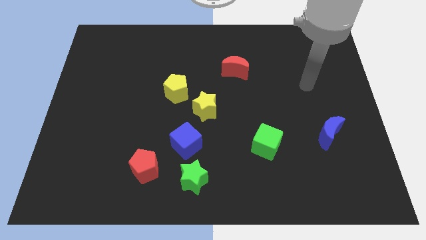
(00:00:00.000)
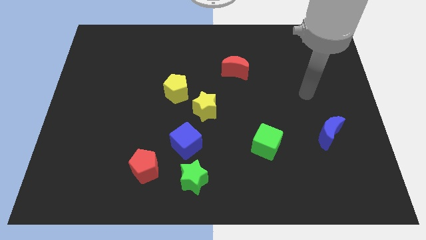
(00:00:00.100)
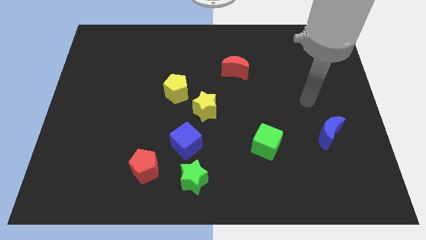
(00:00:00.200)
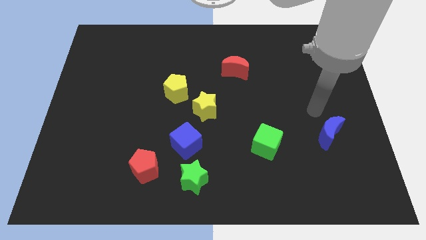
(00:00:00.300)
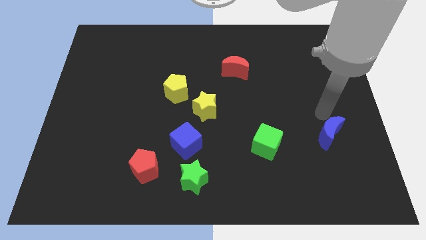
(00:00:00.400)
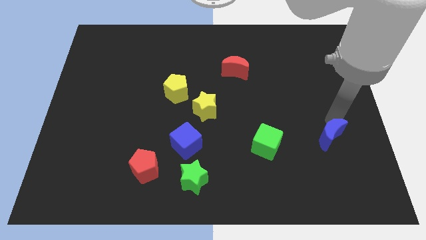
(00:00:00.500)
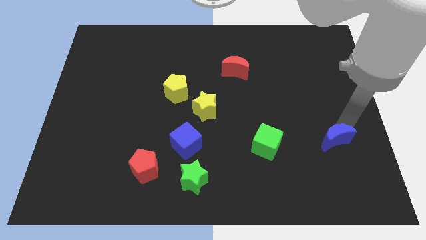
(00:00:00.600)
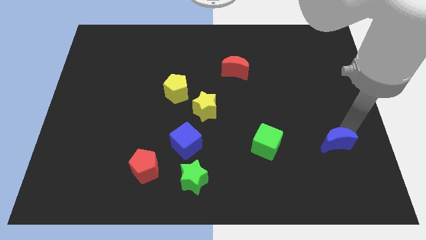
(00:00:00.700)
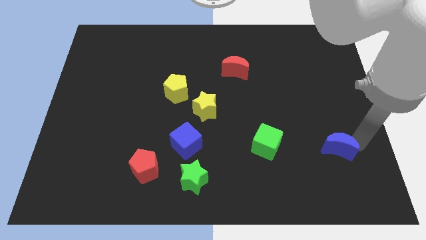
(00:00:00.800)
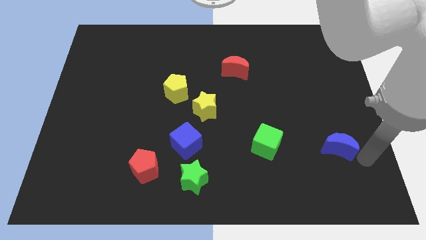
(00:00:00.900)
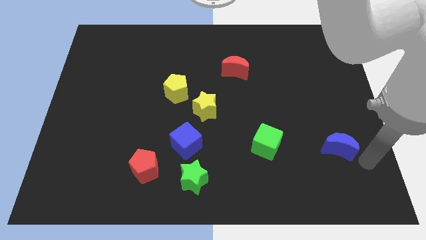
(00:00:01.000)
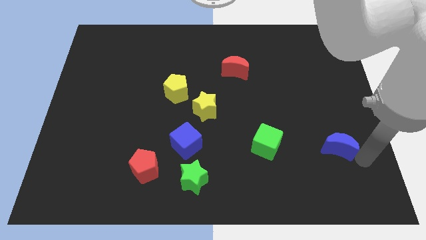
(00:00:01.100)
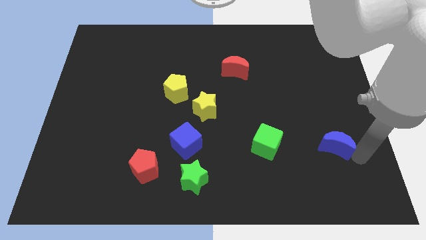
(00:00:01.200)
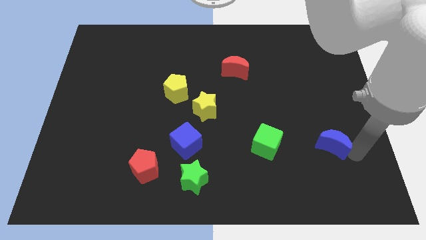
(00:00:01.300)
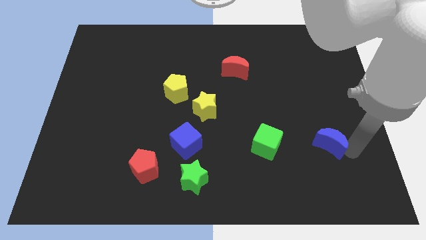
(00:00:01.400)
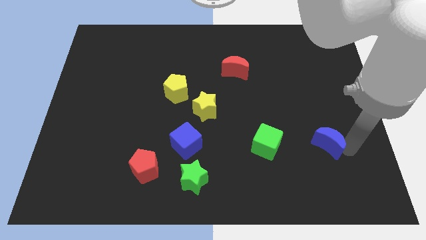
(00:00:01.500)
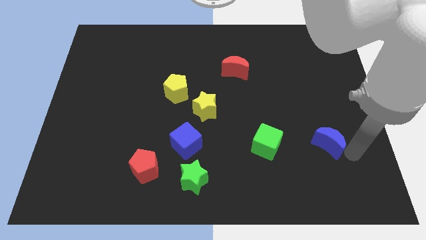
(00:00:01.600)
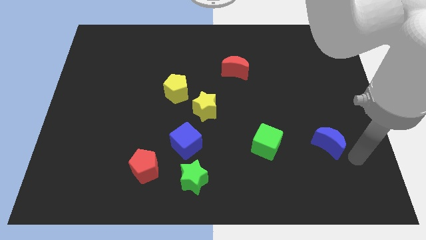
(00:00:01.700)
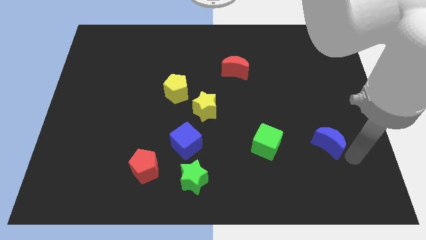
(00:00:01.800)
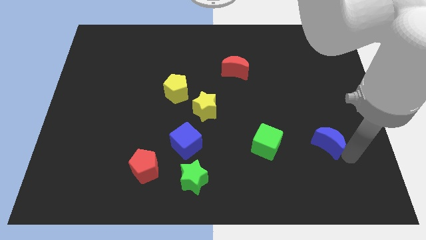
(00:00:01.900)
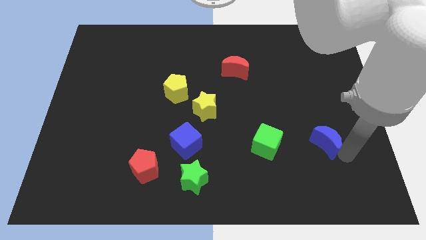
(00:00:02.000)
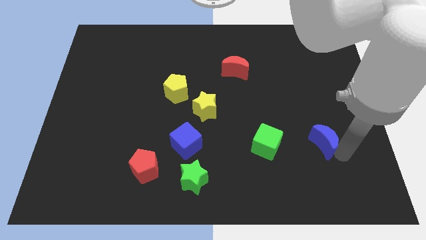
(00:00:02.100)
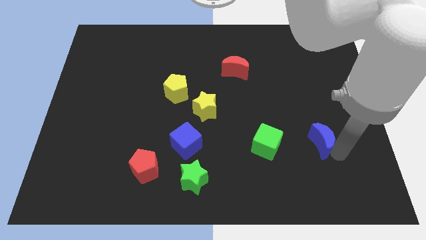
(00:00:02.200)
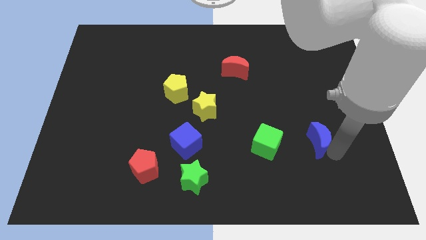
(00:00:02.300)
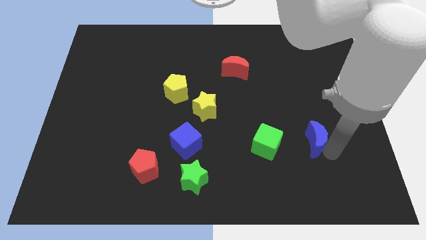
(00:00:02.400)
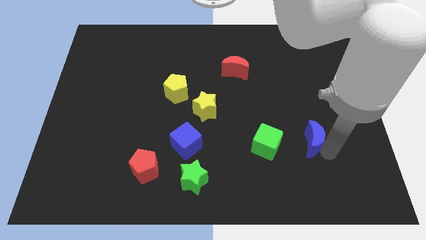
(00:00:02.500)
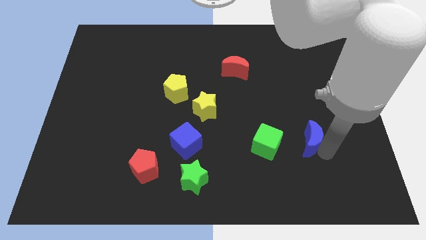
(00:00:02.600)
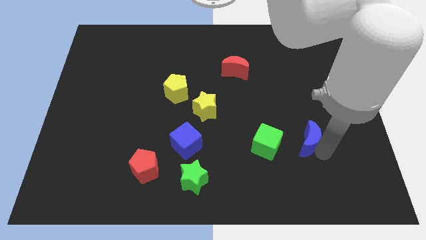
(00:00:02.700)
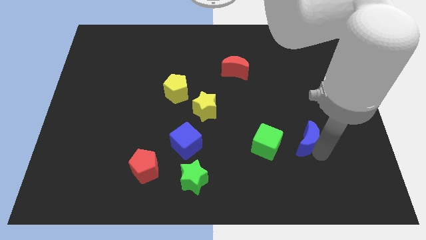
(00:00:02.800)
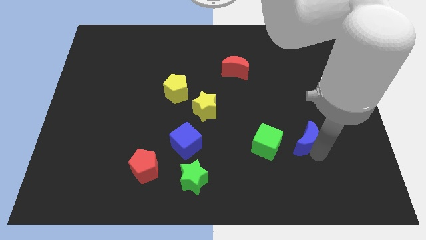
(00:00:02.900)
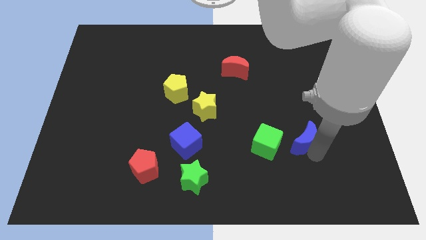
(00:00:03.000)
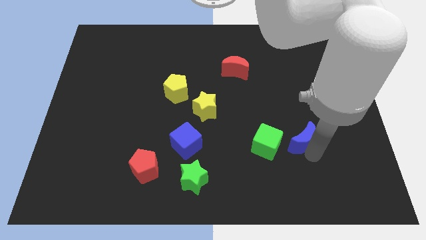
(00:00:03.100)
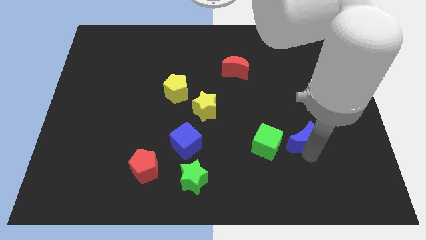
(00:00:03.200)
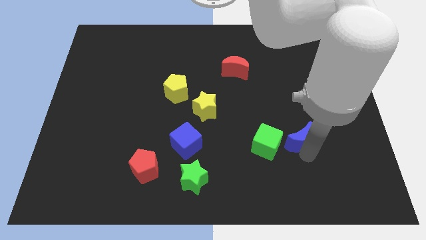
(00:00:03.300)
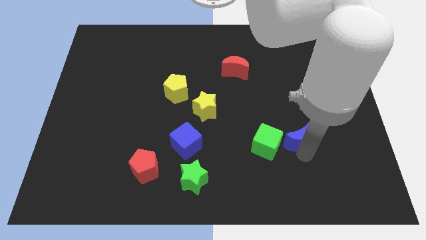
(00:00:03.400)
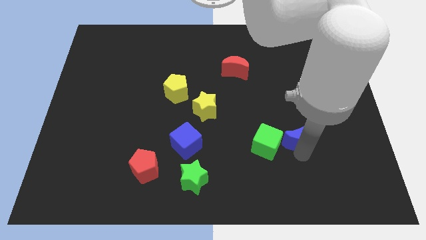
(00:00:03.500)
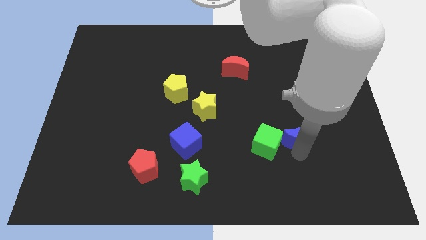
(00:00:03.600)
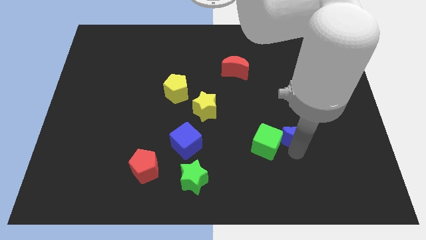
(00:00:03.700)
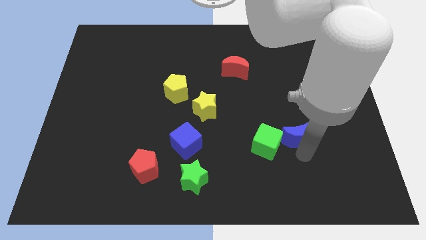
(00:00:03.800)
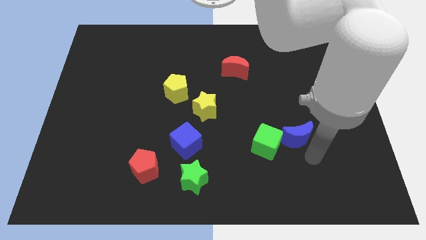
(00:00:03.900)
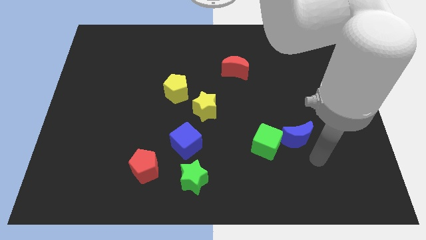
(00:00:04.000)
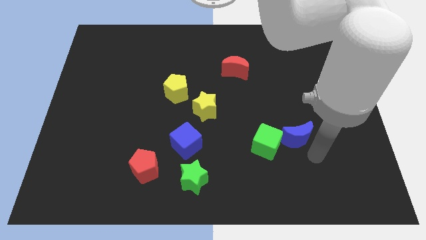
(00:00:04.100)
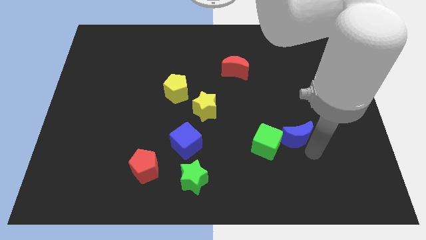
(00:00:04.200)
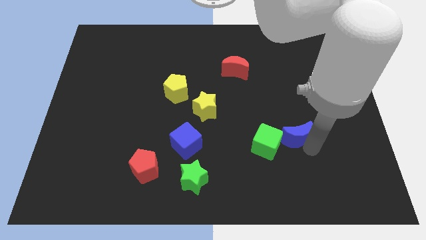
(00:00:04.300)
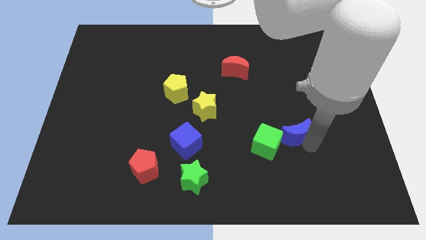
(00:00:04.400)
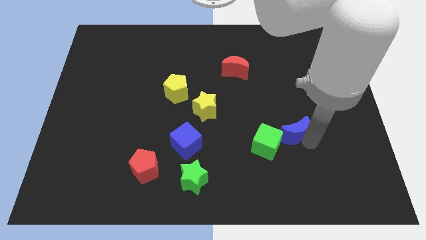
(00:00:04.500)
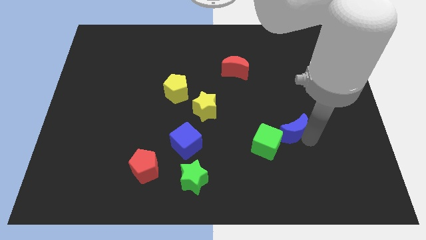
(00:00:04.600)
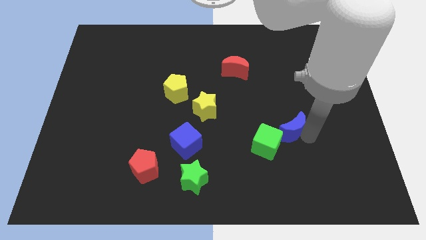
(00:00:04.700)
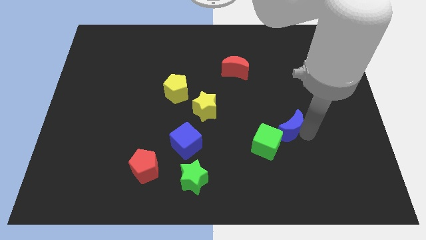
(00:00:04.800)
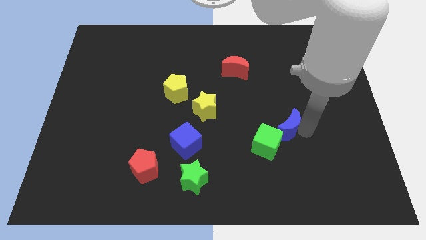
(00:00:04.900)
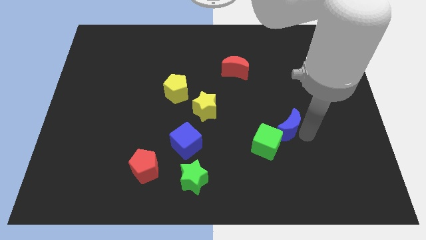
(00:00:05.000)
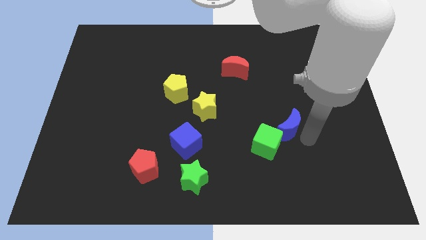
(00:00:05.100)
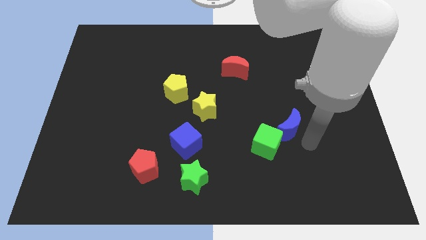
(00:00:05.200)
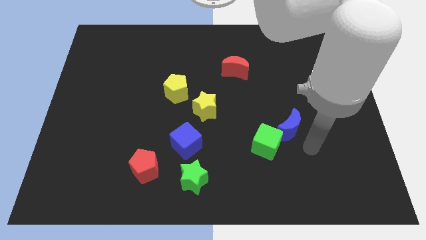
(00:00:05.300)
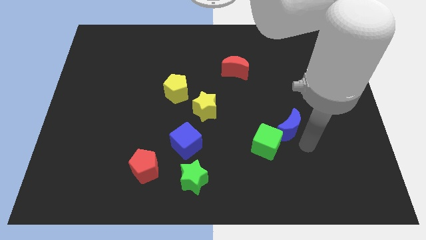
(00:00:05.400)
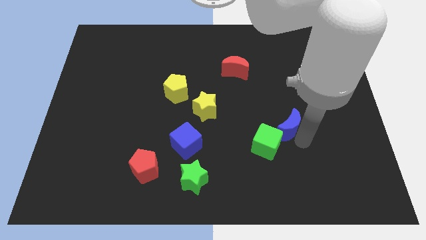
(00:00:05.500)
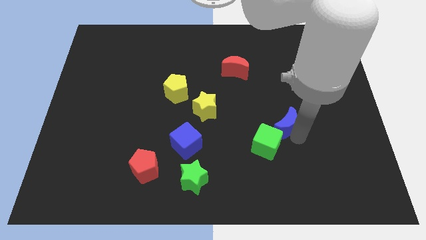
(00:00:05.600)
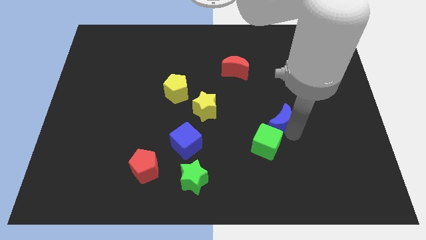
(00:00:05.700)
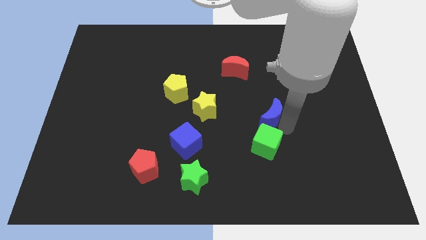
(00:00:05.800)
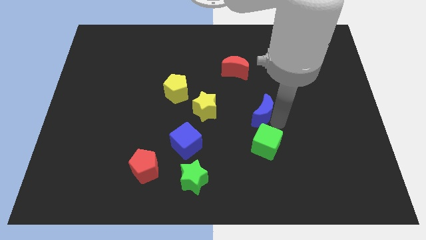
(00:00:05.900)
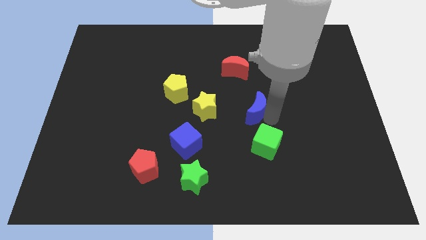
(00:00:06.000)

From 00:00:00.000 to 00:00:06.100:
push the blue moon to the bottom side of the red moon
